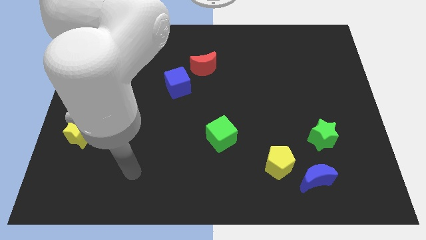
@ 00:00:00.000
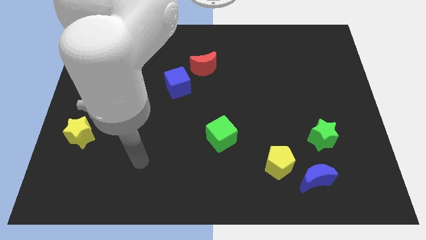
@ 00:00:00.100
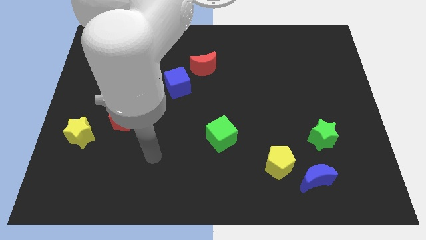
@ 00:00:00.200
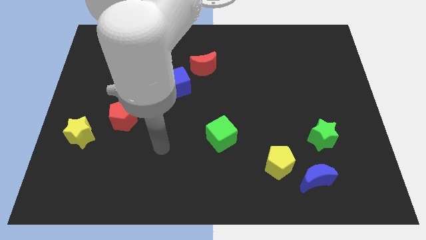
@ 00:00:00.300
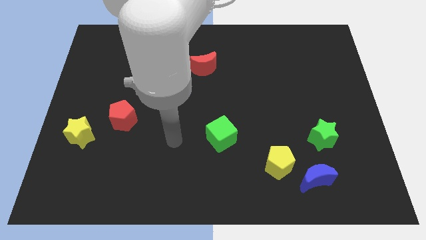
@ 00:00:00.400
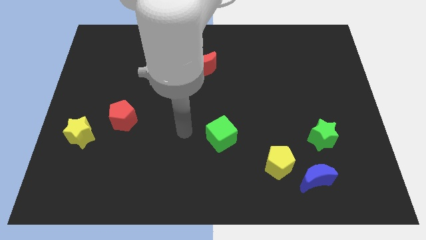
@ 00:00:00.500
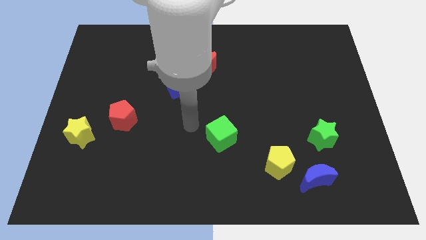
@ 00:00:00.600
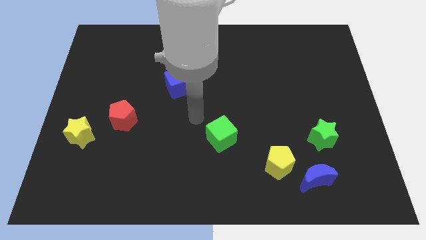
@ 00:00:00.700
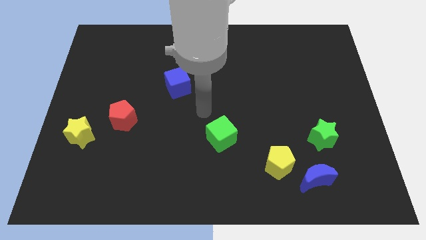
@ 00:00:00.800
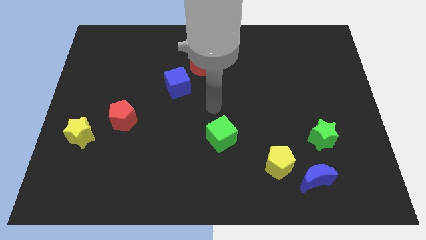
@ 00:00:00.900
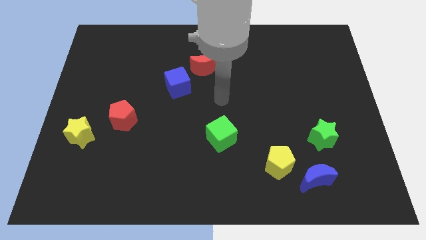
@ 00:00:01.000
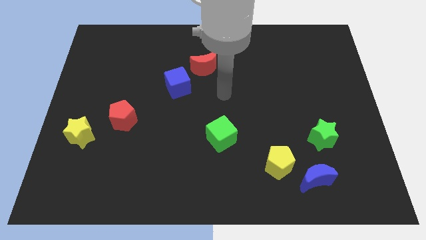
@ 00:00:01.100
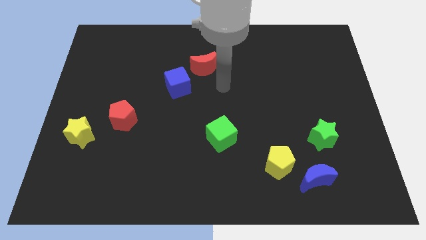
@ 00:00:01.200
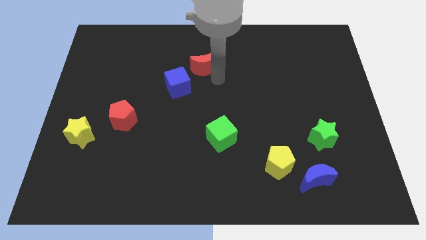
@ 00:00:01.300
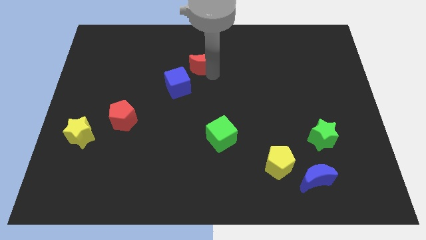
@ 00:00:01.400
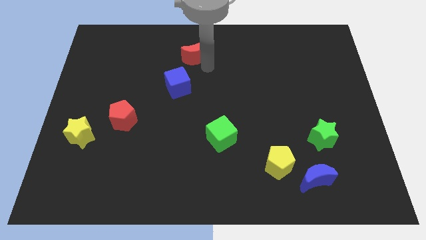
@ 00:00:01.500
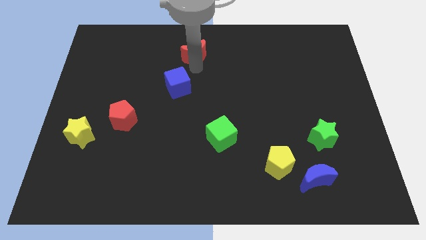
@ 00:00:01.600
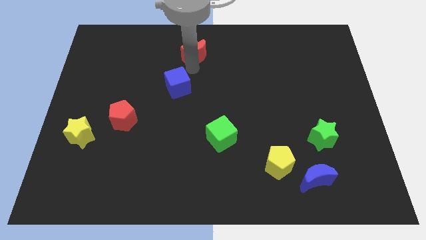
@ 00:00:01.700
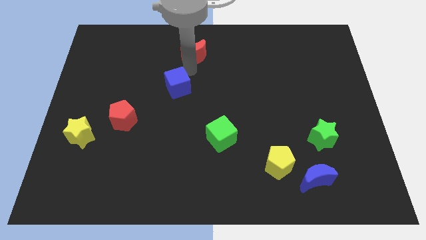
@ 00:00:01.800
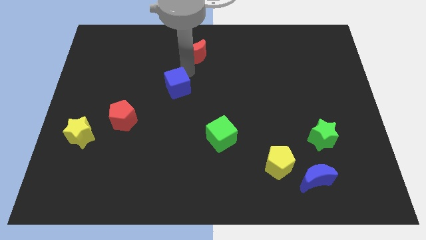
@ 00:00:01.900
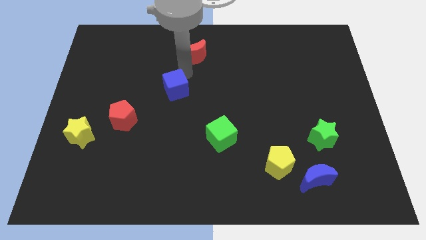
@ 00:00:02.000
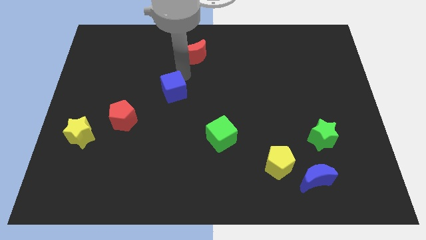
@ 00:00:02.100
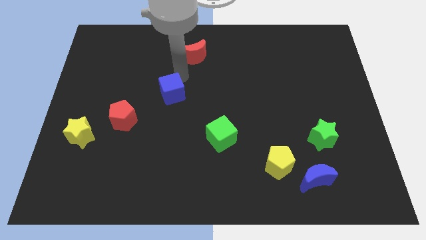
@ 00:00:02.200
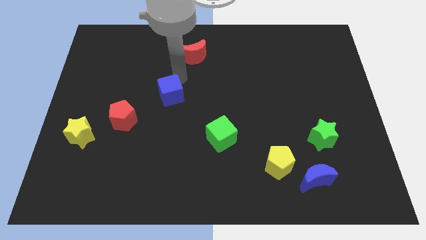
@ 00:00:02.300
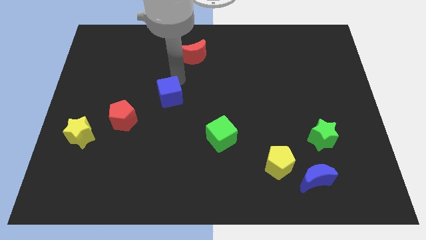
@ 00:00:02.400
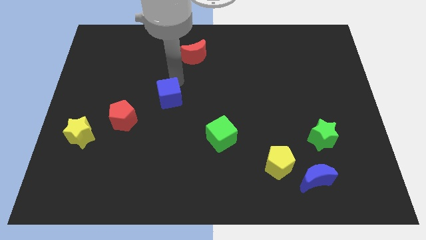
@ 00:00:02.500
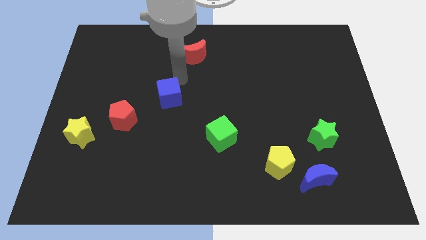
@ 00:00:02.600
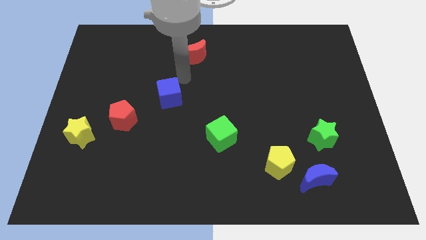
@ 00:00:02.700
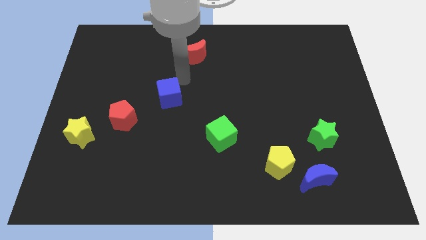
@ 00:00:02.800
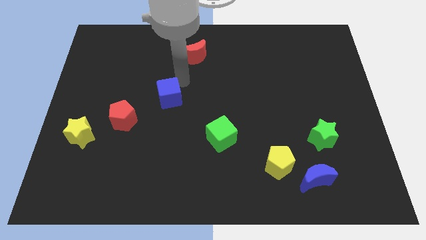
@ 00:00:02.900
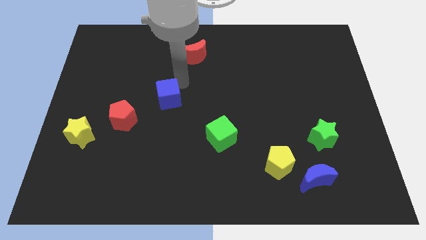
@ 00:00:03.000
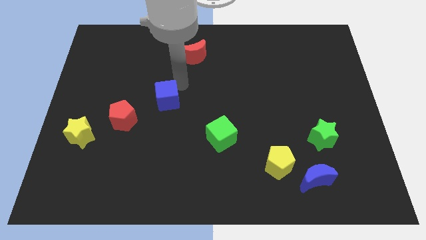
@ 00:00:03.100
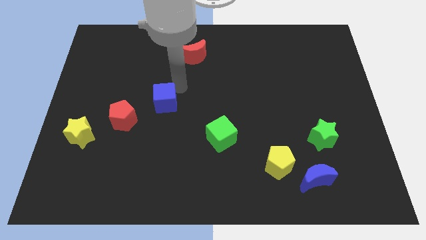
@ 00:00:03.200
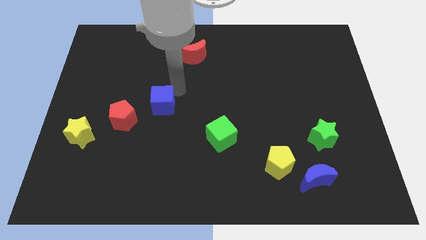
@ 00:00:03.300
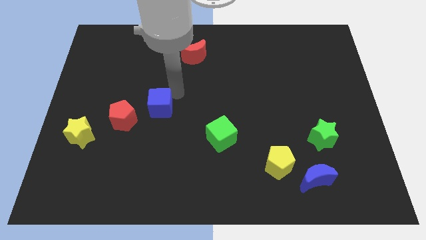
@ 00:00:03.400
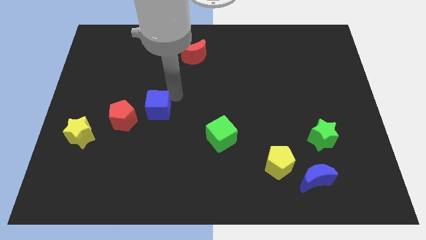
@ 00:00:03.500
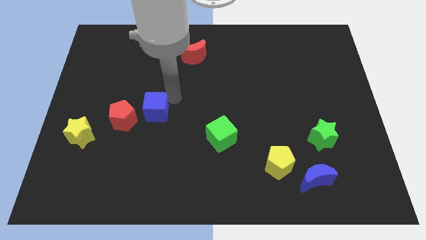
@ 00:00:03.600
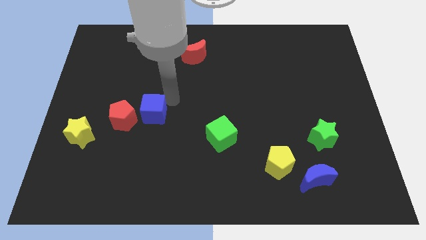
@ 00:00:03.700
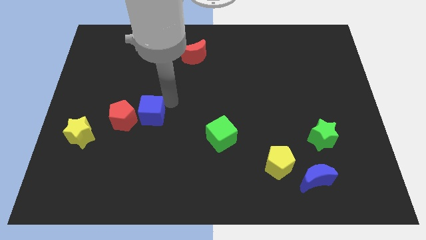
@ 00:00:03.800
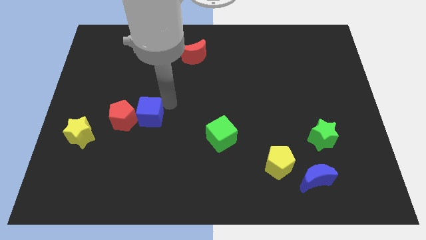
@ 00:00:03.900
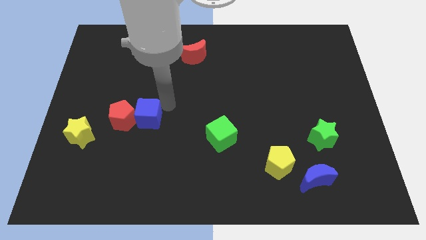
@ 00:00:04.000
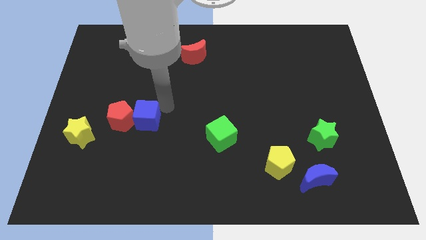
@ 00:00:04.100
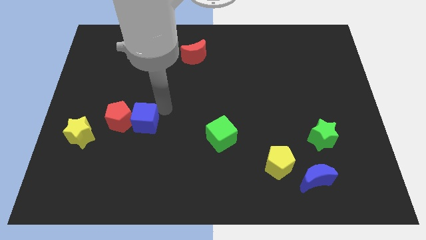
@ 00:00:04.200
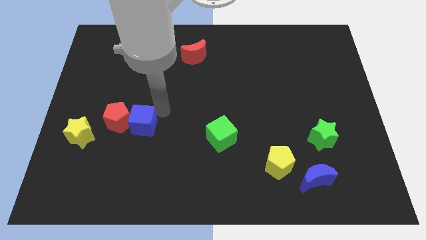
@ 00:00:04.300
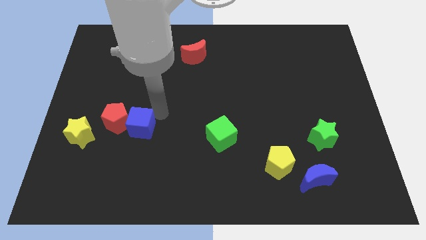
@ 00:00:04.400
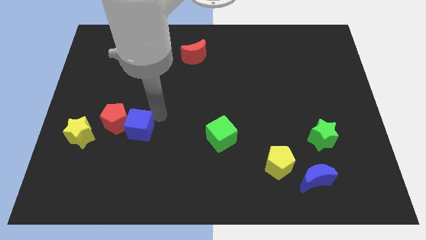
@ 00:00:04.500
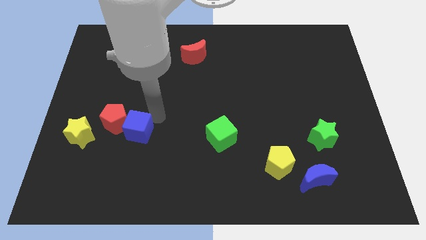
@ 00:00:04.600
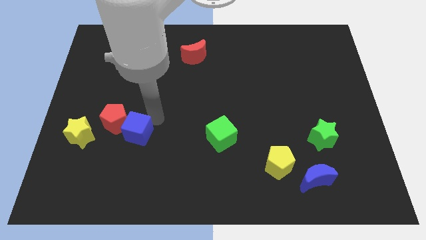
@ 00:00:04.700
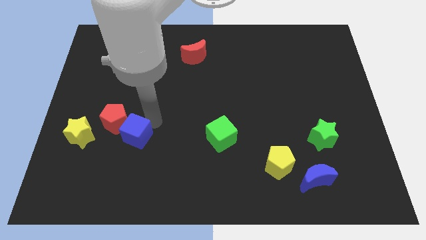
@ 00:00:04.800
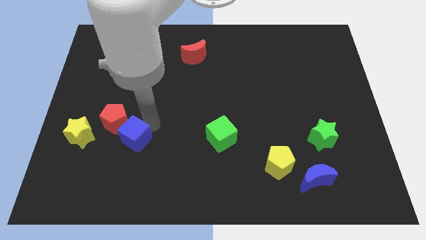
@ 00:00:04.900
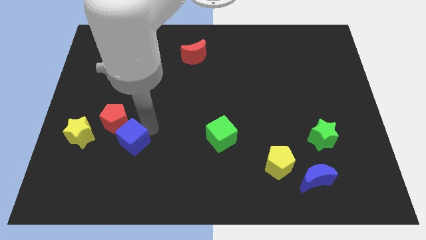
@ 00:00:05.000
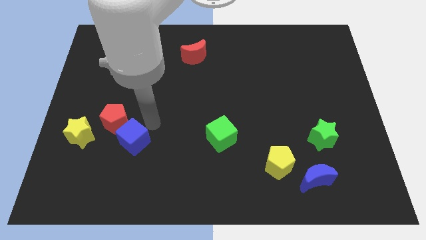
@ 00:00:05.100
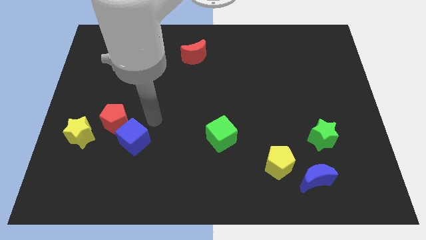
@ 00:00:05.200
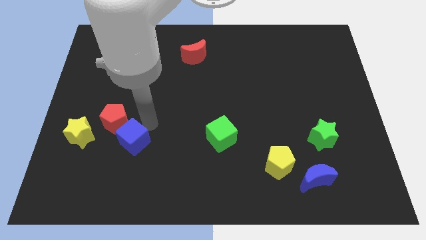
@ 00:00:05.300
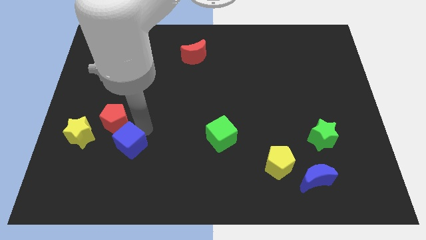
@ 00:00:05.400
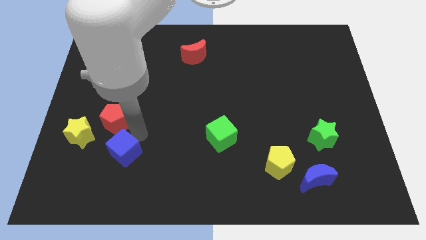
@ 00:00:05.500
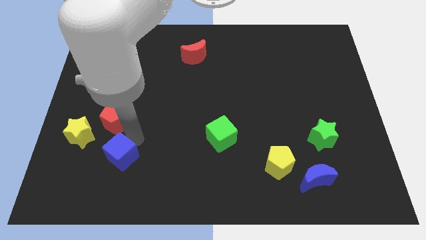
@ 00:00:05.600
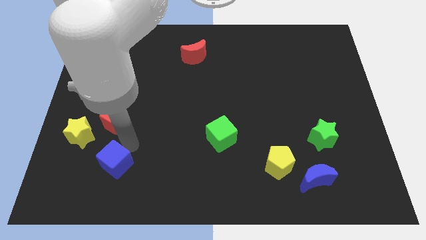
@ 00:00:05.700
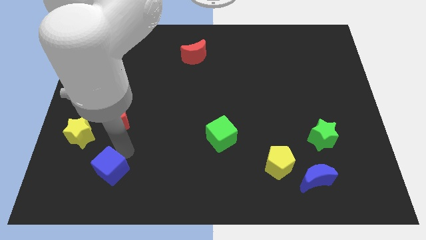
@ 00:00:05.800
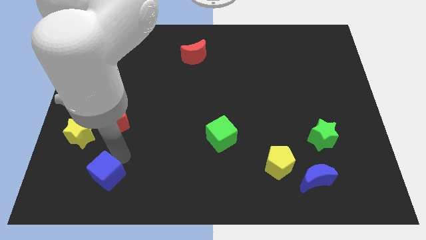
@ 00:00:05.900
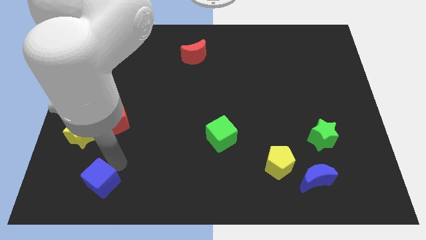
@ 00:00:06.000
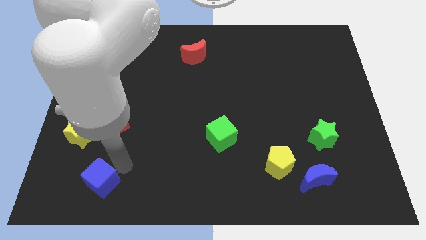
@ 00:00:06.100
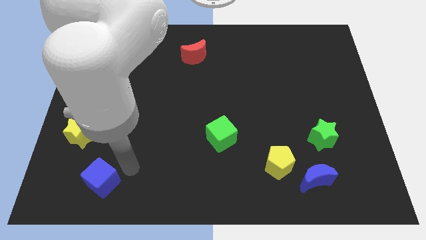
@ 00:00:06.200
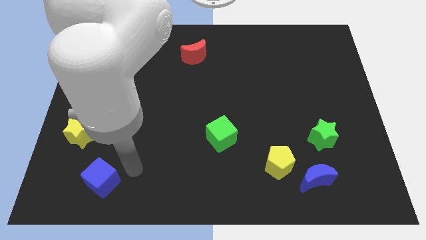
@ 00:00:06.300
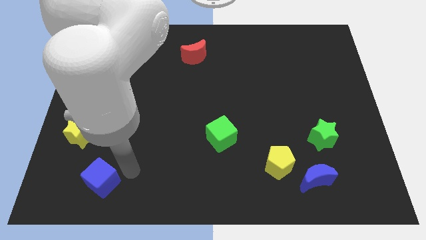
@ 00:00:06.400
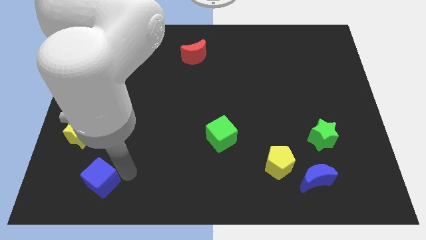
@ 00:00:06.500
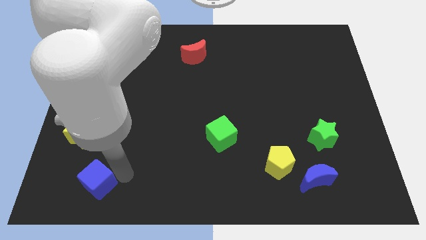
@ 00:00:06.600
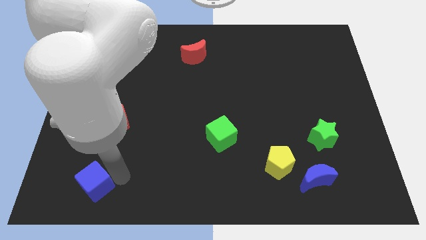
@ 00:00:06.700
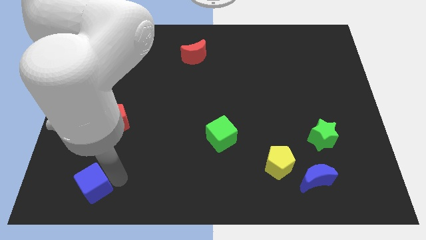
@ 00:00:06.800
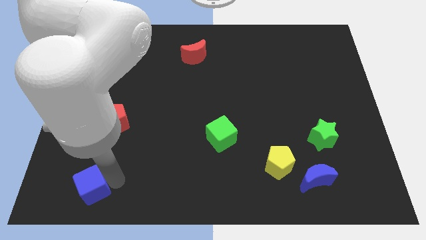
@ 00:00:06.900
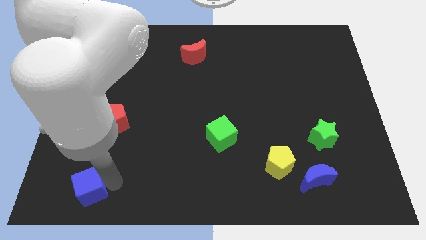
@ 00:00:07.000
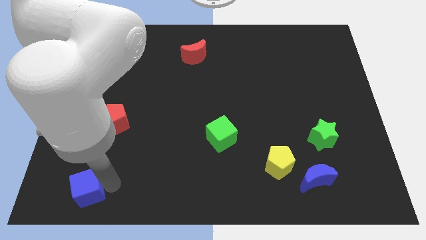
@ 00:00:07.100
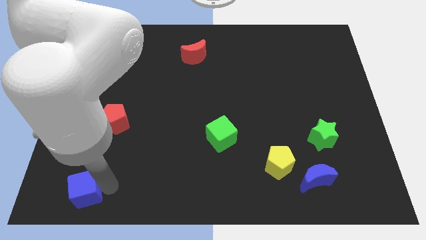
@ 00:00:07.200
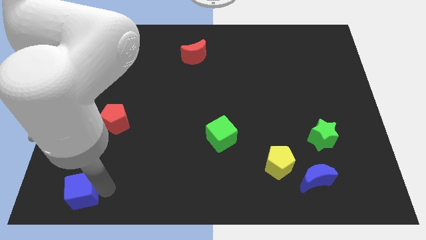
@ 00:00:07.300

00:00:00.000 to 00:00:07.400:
move the blue cube to the bottom left corner
